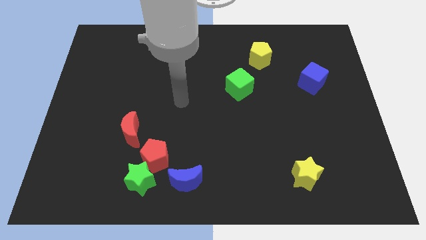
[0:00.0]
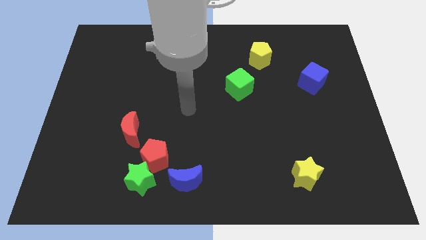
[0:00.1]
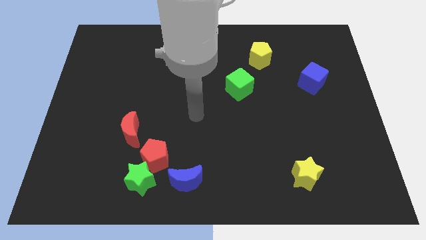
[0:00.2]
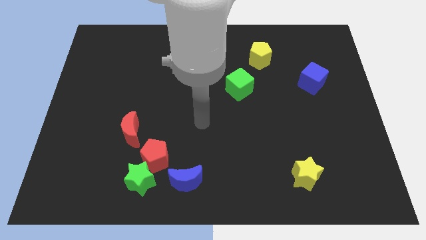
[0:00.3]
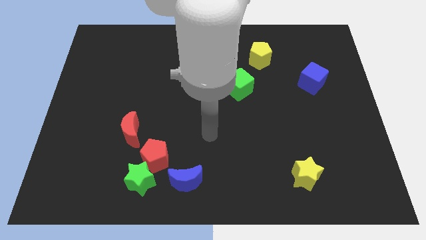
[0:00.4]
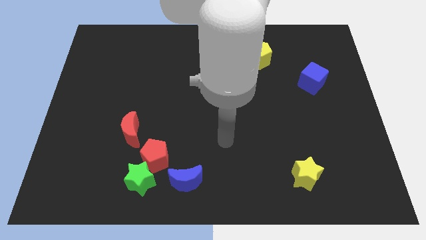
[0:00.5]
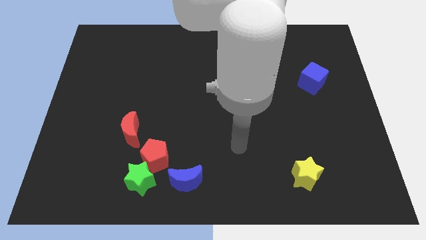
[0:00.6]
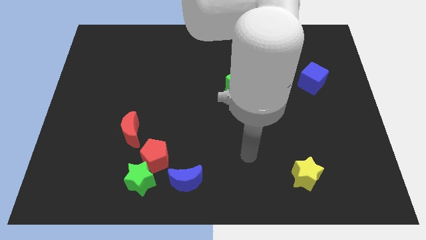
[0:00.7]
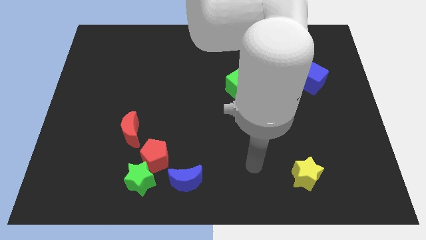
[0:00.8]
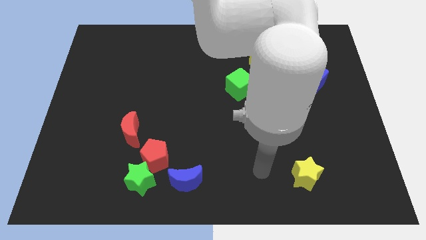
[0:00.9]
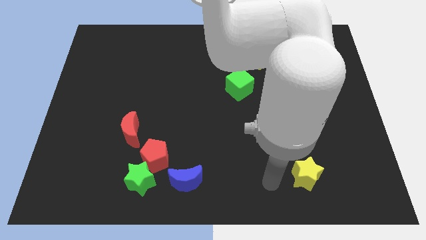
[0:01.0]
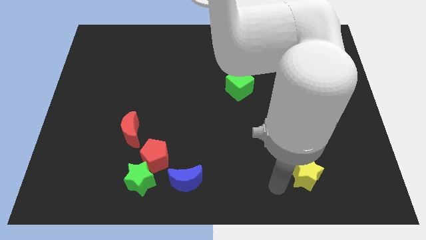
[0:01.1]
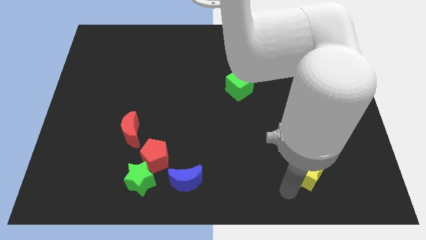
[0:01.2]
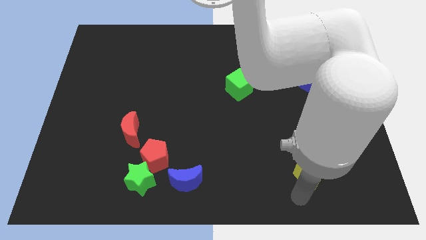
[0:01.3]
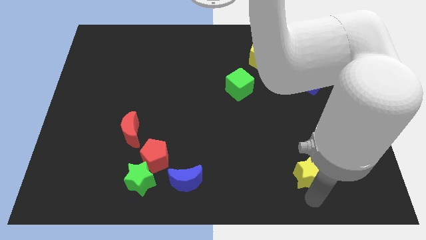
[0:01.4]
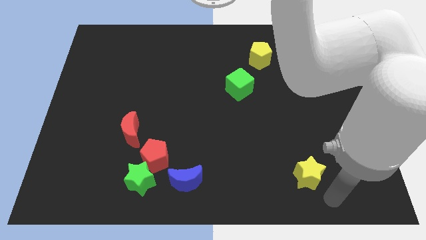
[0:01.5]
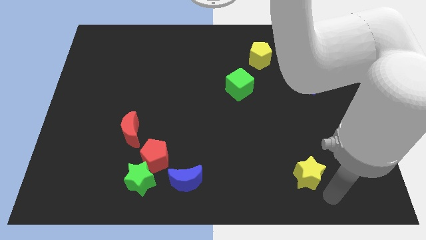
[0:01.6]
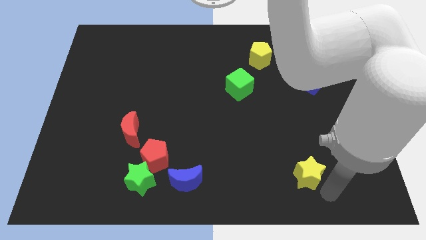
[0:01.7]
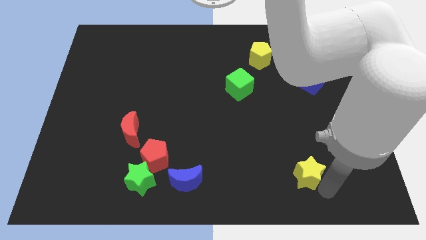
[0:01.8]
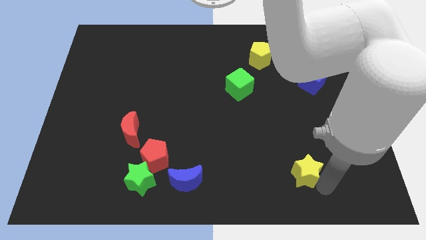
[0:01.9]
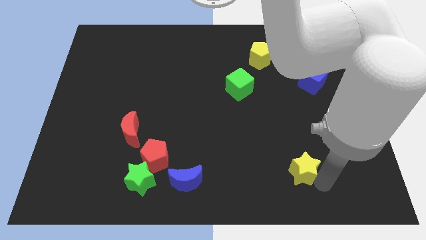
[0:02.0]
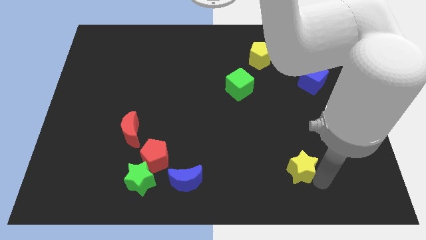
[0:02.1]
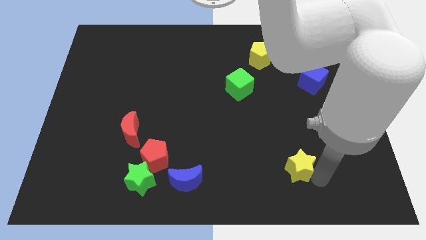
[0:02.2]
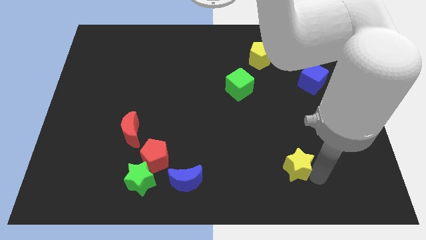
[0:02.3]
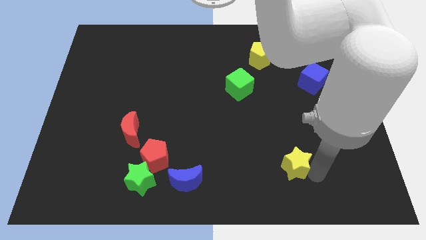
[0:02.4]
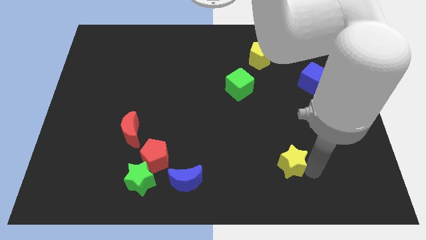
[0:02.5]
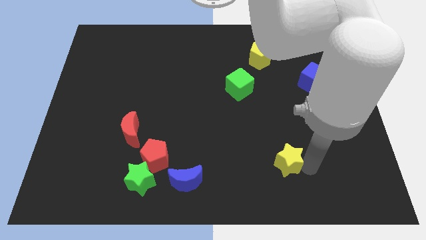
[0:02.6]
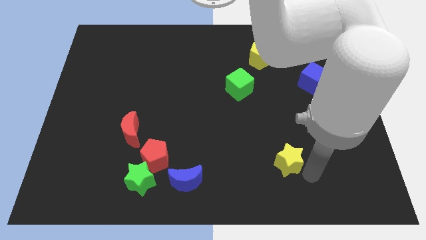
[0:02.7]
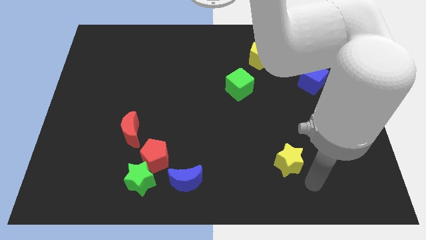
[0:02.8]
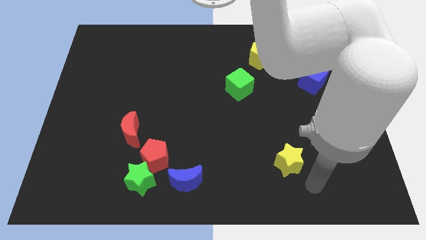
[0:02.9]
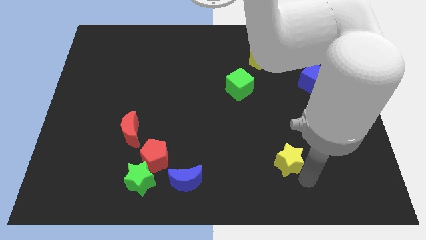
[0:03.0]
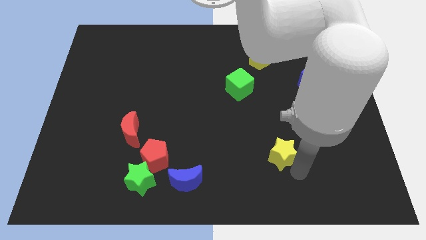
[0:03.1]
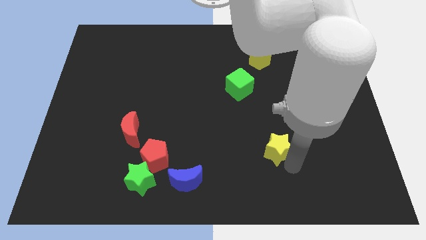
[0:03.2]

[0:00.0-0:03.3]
slightly push the yellow star upwards and left diagonally

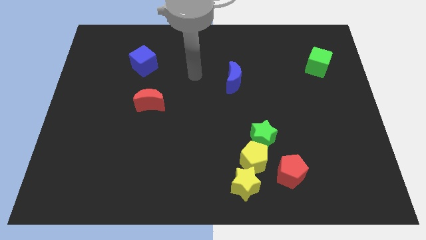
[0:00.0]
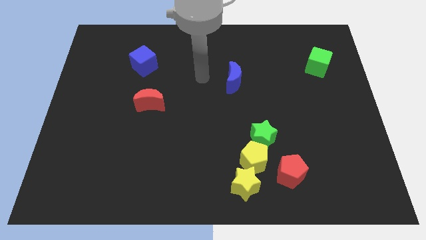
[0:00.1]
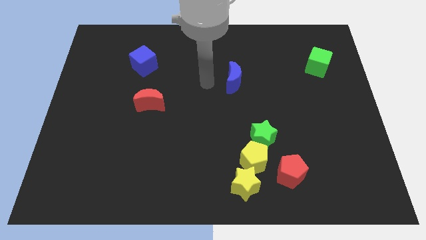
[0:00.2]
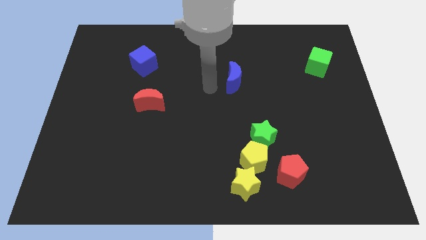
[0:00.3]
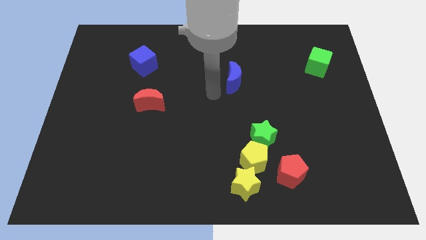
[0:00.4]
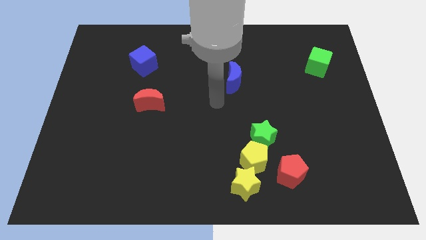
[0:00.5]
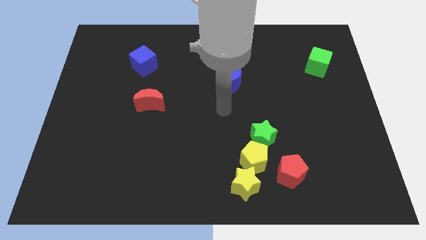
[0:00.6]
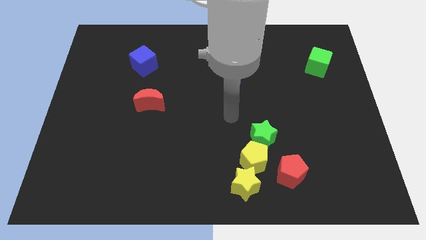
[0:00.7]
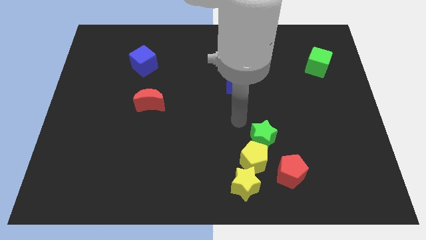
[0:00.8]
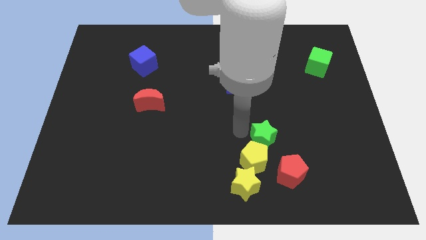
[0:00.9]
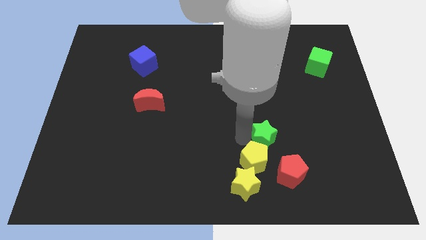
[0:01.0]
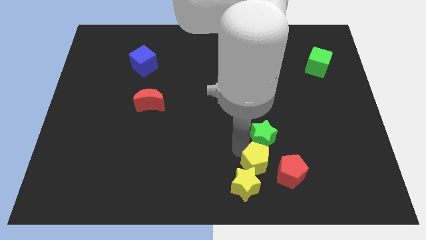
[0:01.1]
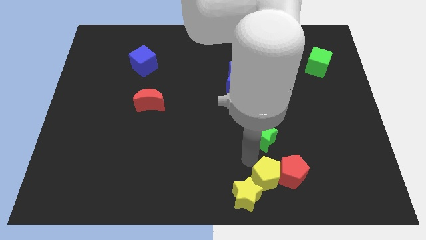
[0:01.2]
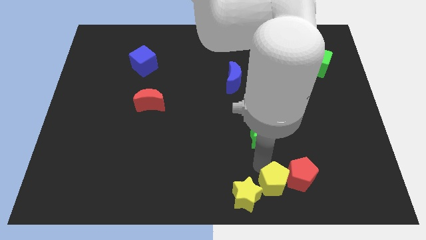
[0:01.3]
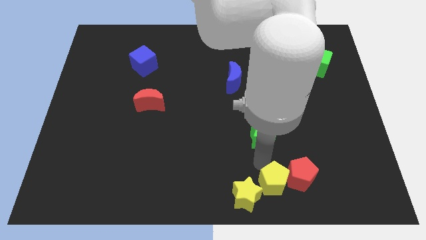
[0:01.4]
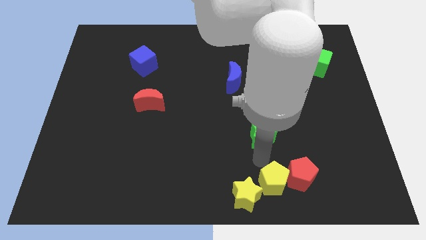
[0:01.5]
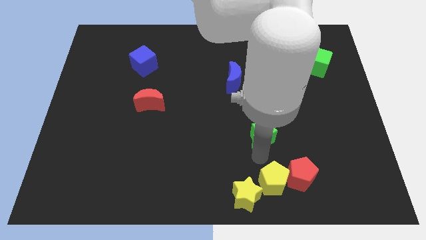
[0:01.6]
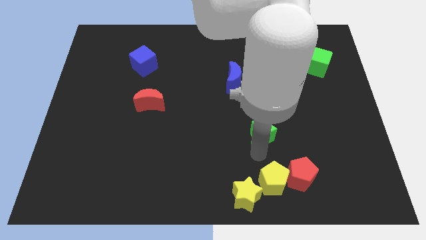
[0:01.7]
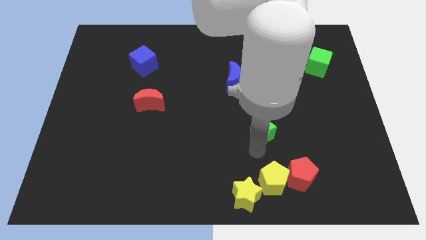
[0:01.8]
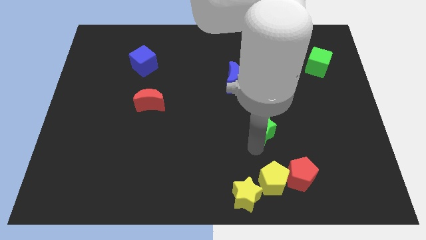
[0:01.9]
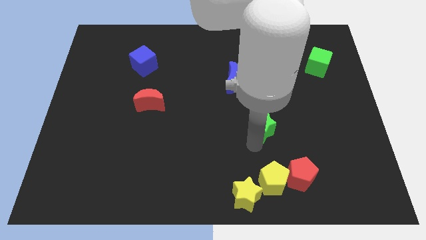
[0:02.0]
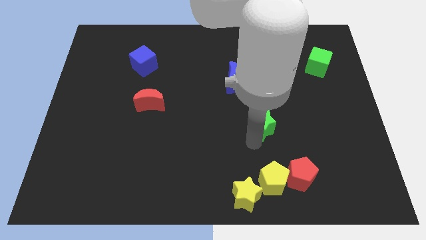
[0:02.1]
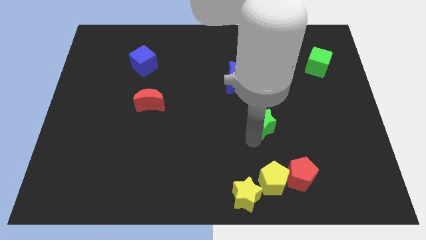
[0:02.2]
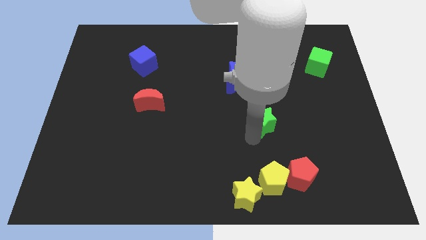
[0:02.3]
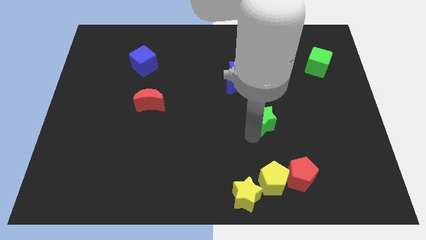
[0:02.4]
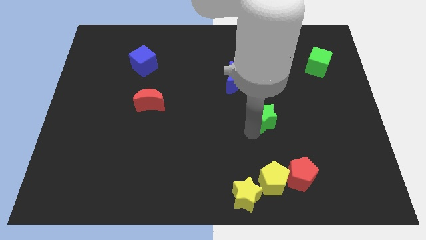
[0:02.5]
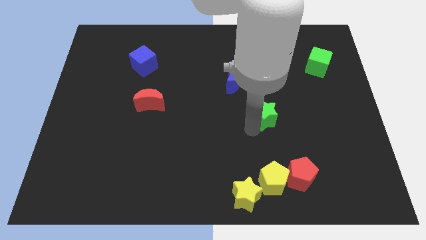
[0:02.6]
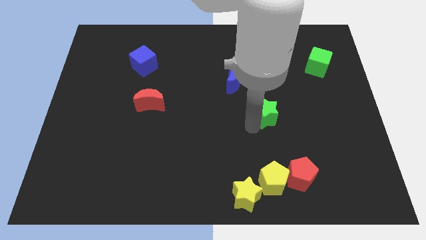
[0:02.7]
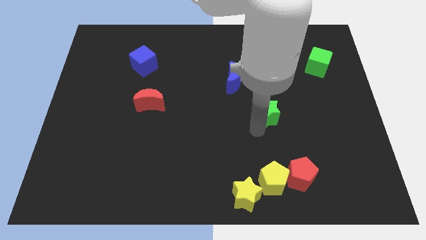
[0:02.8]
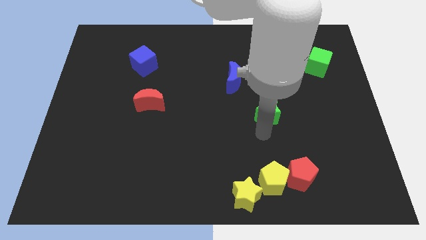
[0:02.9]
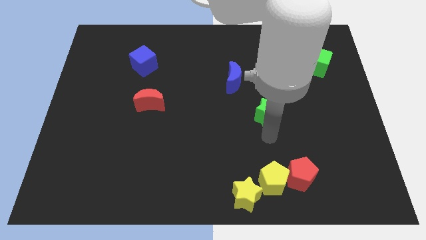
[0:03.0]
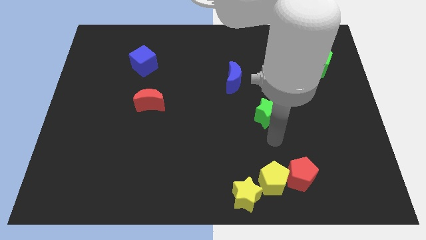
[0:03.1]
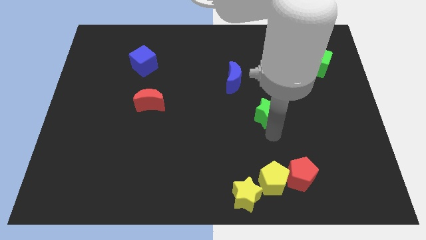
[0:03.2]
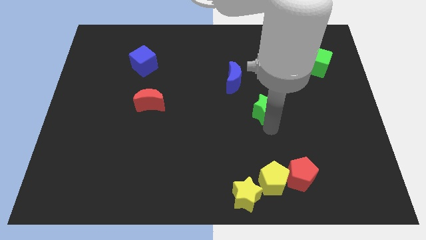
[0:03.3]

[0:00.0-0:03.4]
push the green star up slightly

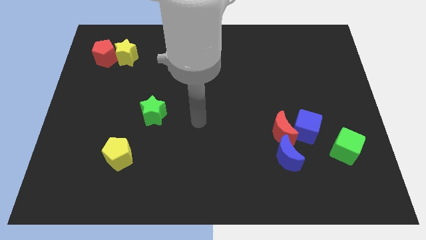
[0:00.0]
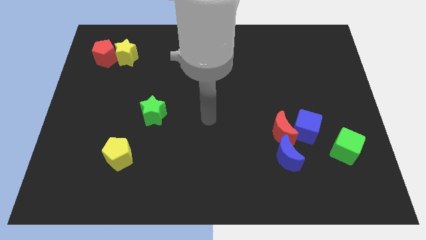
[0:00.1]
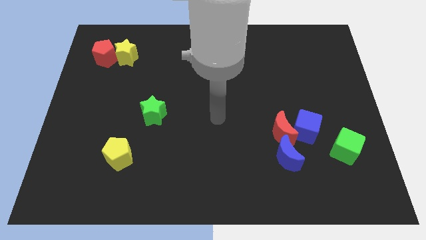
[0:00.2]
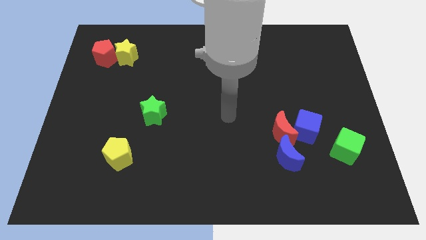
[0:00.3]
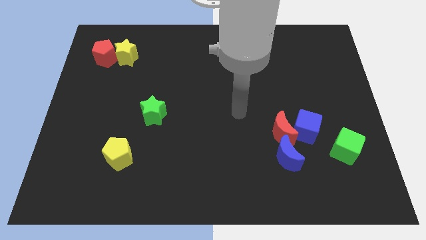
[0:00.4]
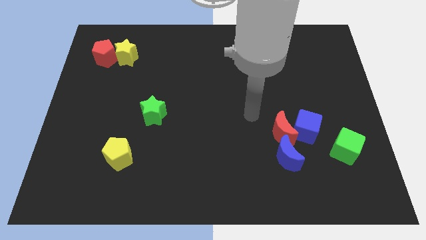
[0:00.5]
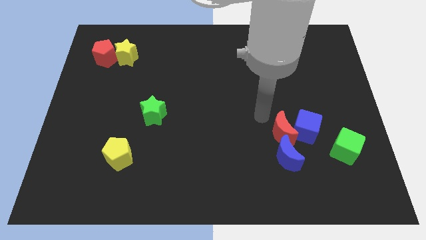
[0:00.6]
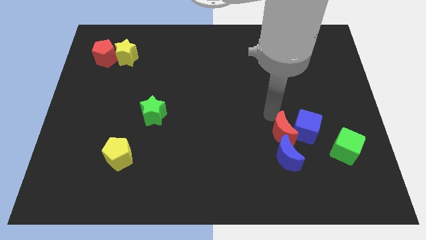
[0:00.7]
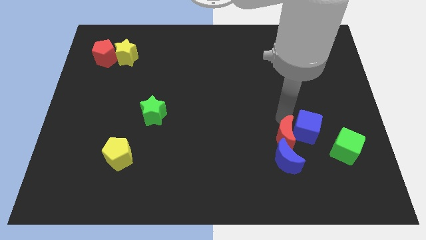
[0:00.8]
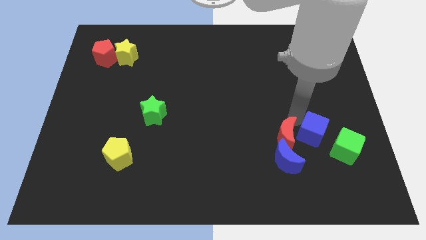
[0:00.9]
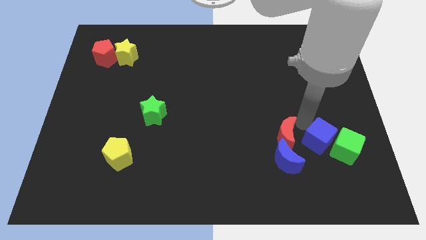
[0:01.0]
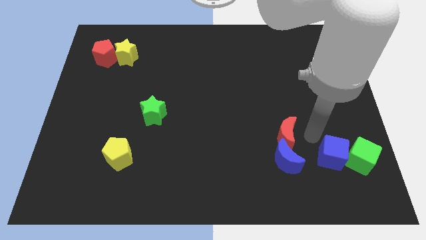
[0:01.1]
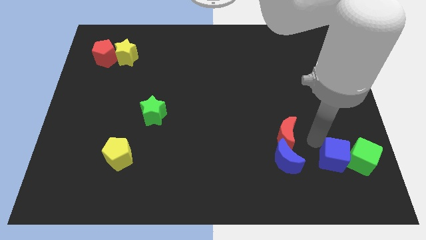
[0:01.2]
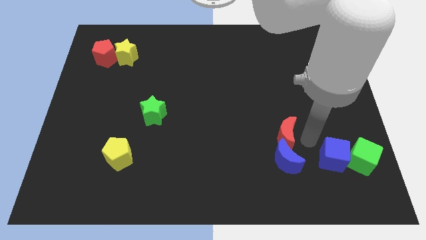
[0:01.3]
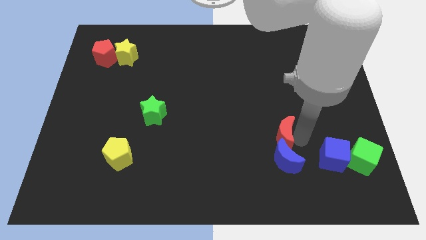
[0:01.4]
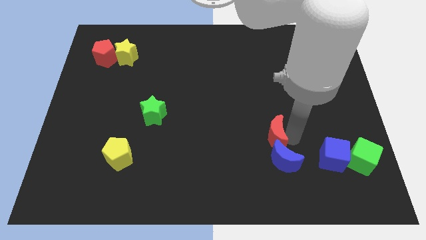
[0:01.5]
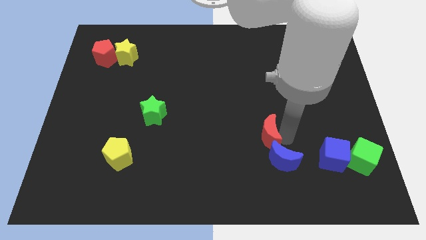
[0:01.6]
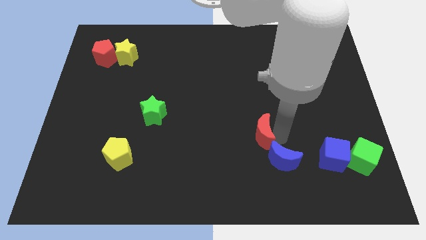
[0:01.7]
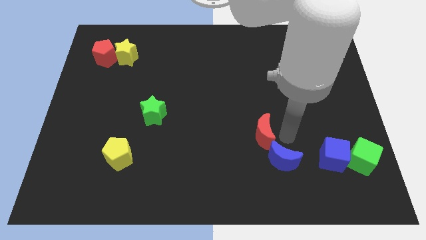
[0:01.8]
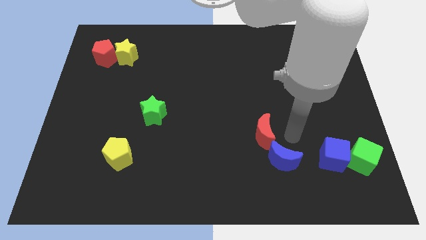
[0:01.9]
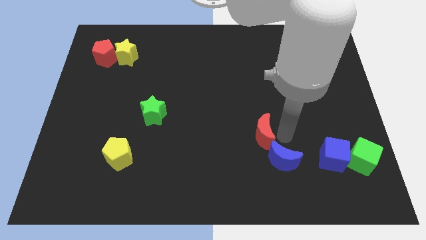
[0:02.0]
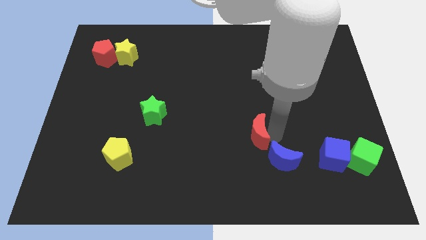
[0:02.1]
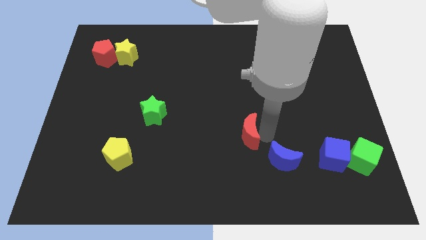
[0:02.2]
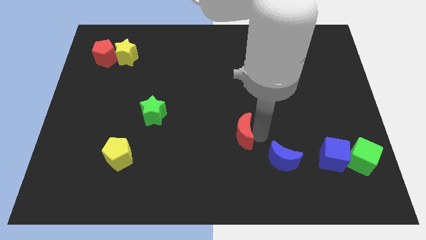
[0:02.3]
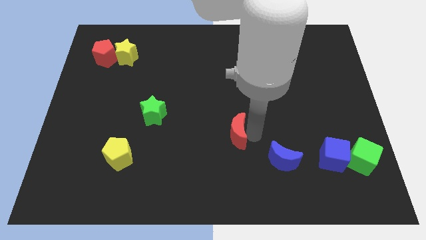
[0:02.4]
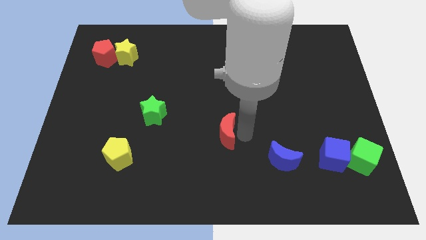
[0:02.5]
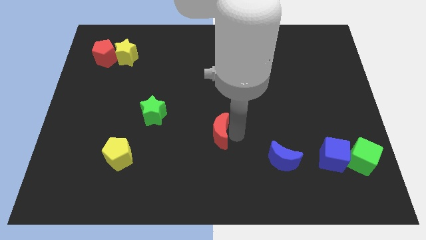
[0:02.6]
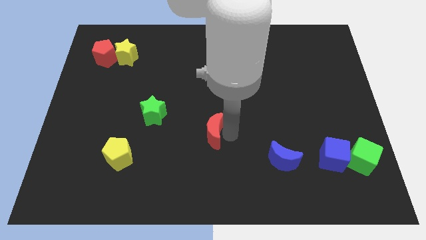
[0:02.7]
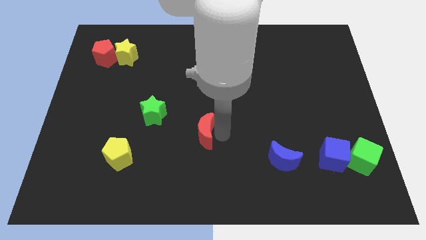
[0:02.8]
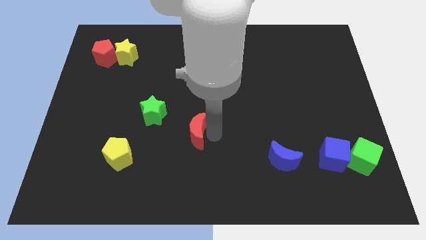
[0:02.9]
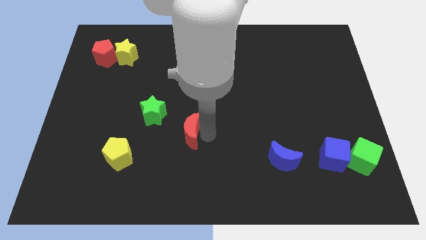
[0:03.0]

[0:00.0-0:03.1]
move the red moon left
